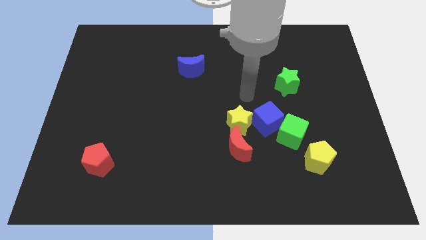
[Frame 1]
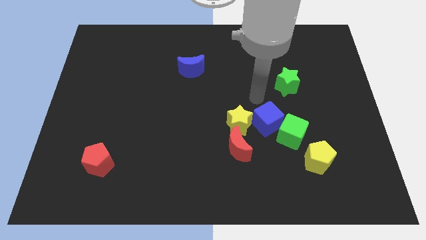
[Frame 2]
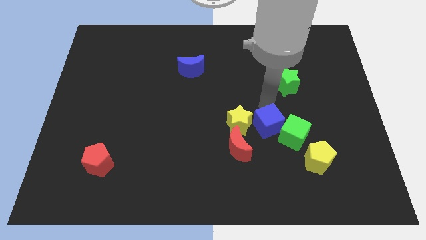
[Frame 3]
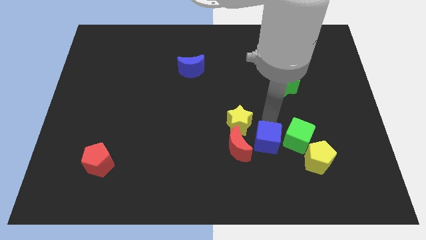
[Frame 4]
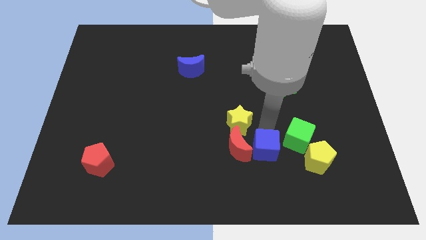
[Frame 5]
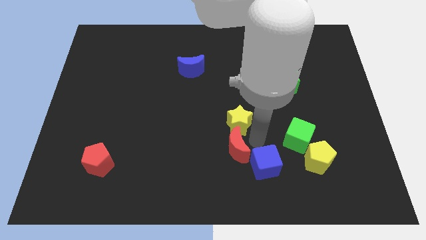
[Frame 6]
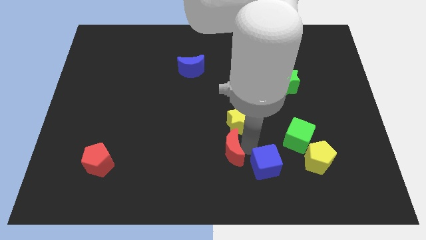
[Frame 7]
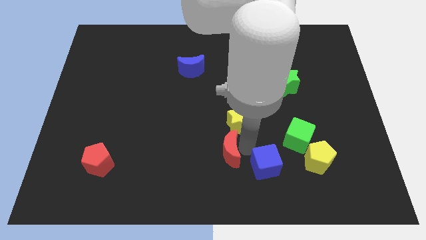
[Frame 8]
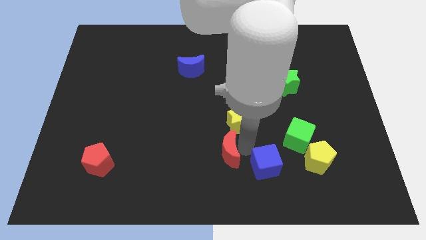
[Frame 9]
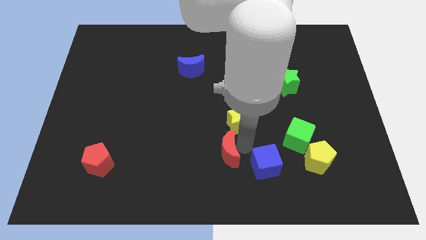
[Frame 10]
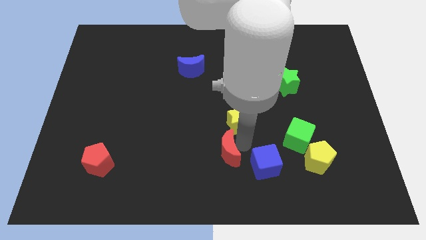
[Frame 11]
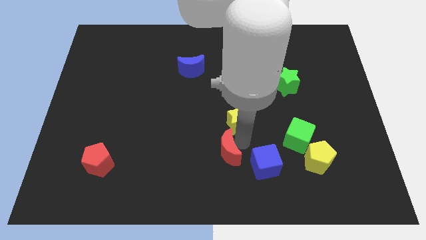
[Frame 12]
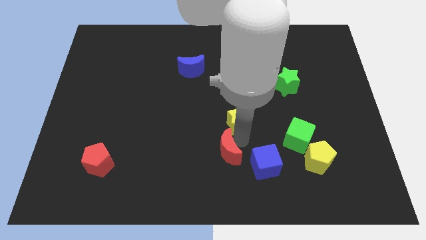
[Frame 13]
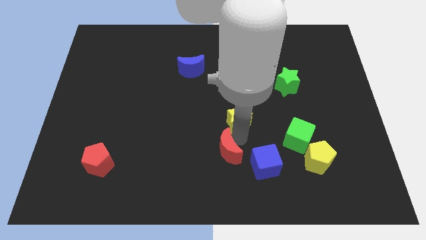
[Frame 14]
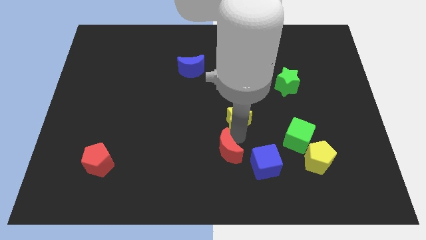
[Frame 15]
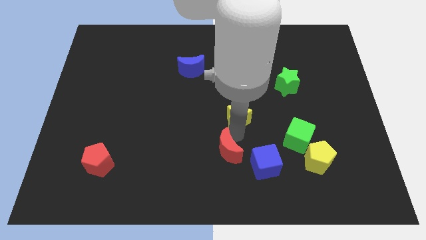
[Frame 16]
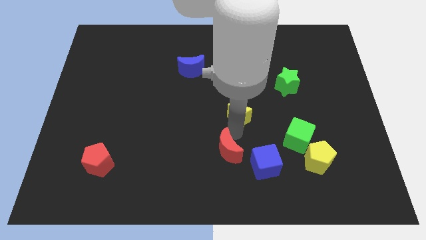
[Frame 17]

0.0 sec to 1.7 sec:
move the yellow star away from the red moon and blue cube

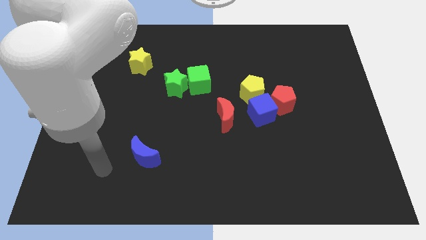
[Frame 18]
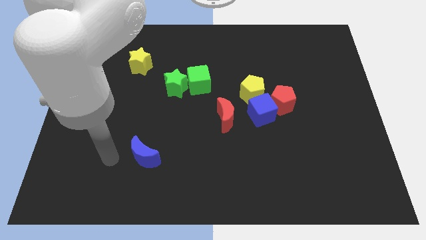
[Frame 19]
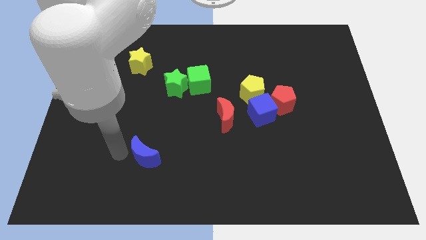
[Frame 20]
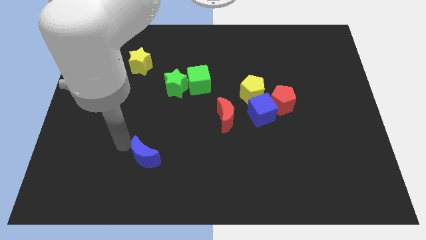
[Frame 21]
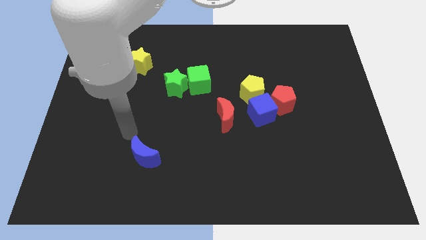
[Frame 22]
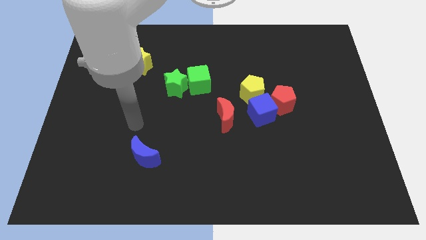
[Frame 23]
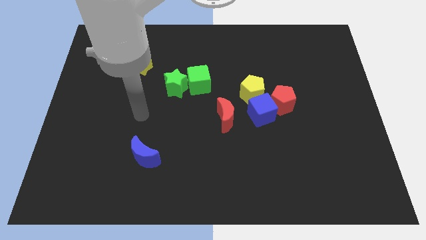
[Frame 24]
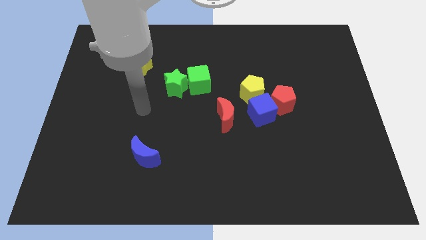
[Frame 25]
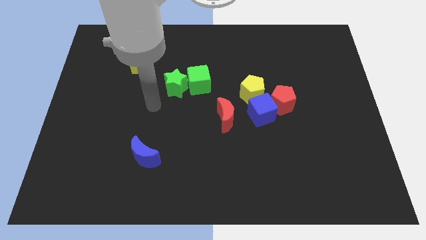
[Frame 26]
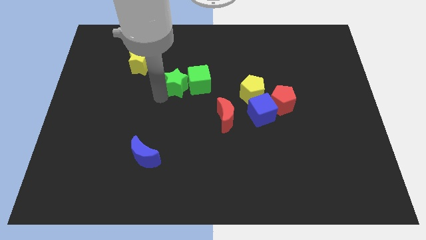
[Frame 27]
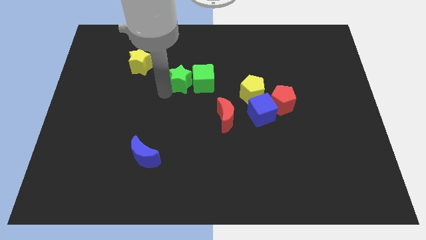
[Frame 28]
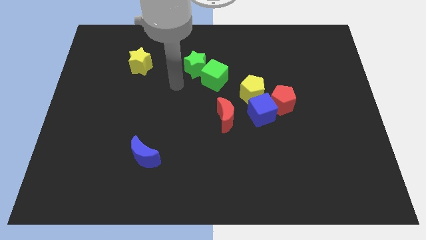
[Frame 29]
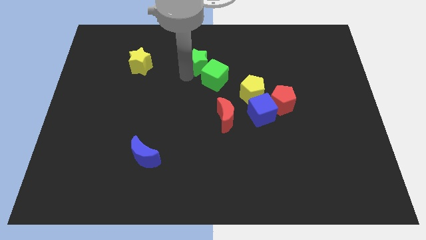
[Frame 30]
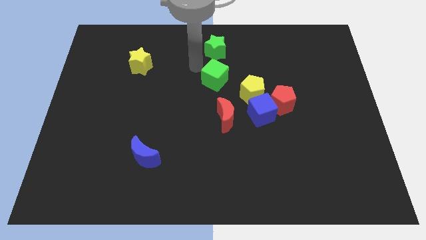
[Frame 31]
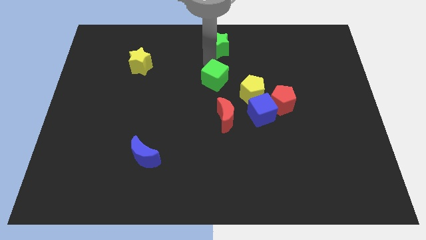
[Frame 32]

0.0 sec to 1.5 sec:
separate the green cube from the green star

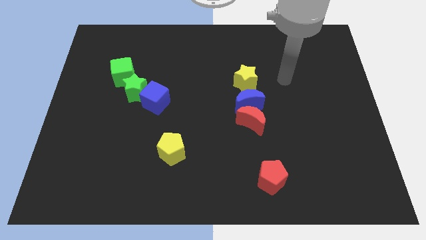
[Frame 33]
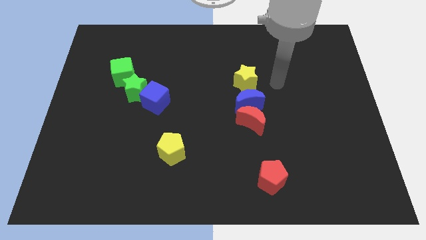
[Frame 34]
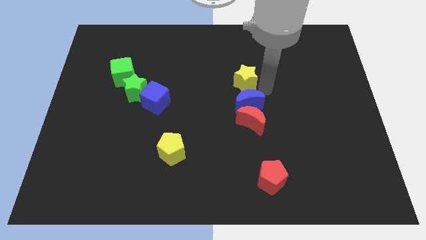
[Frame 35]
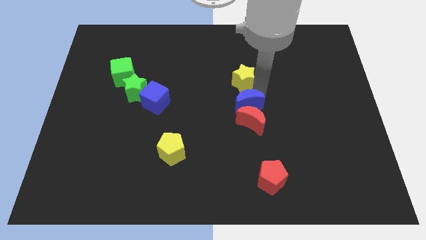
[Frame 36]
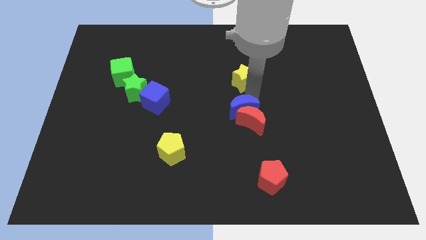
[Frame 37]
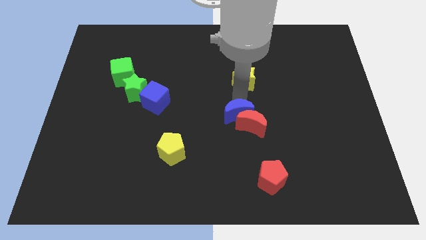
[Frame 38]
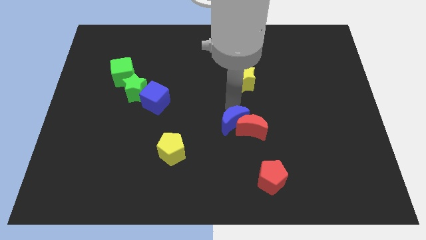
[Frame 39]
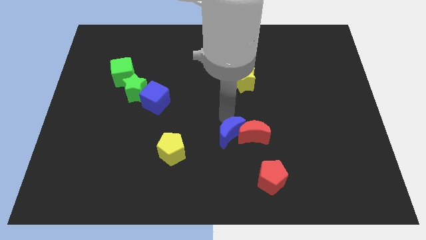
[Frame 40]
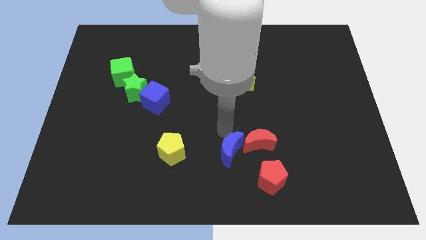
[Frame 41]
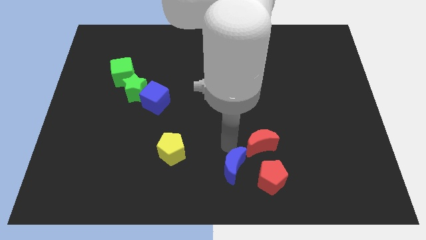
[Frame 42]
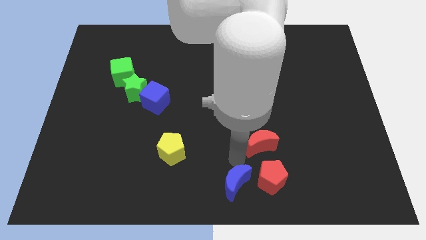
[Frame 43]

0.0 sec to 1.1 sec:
move the red moon away from the blue moon

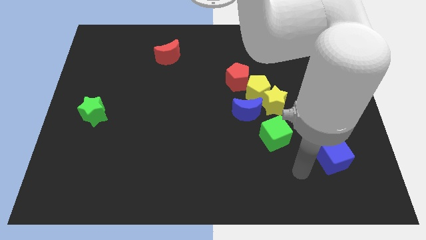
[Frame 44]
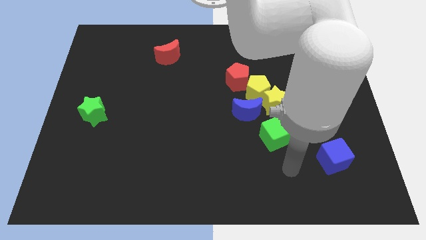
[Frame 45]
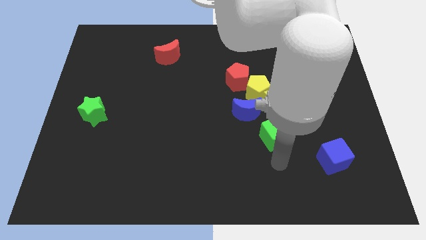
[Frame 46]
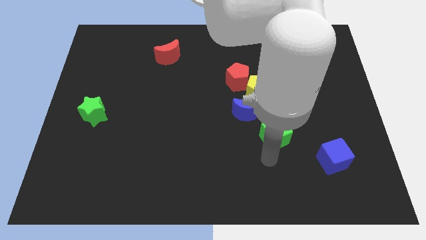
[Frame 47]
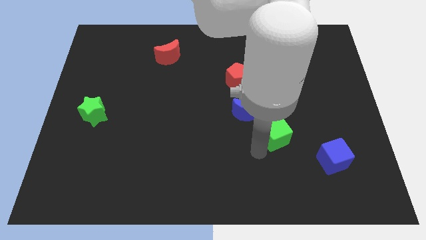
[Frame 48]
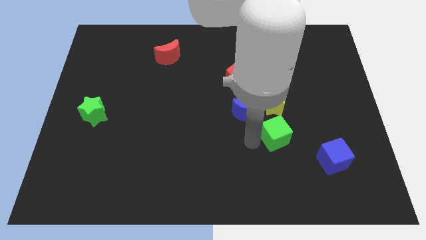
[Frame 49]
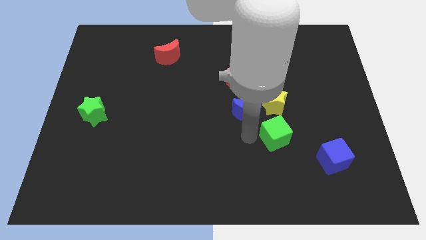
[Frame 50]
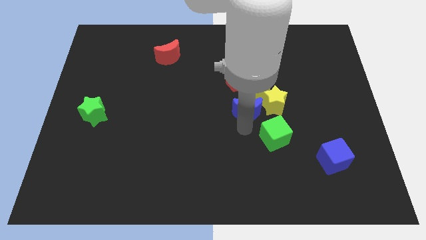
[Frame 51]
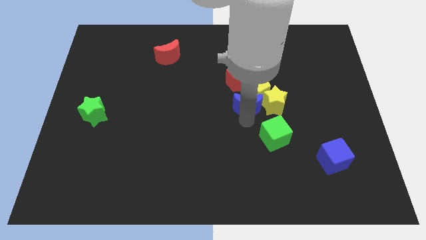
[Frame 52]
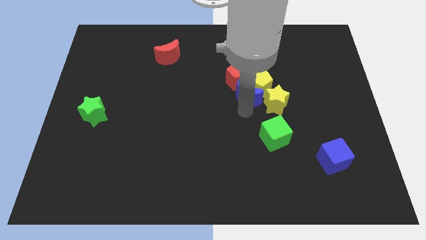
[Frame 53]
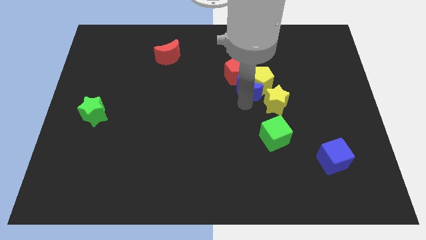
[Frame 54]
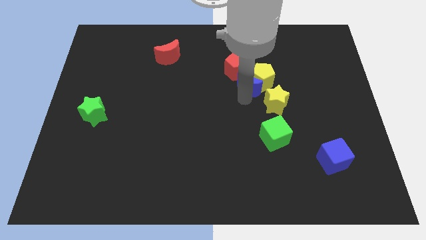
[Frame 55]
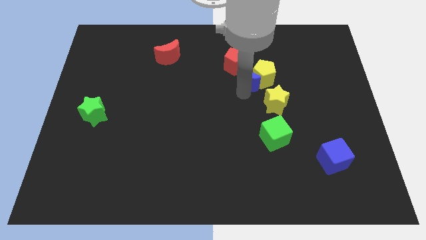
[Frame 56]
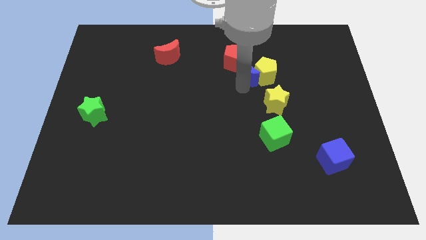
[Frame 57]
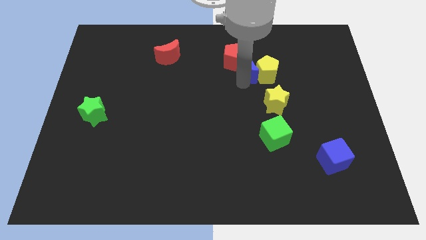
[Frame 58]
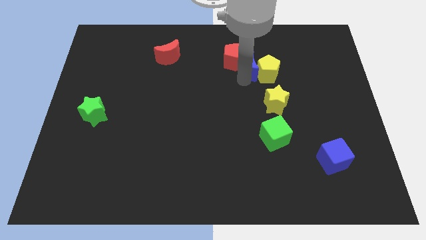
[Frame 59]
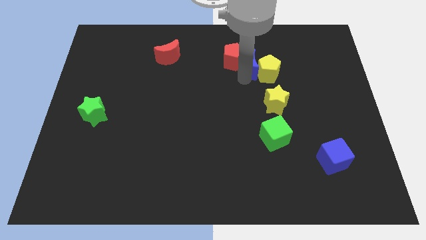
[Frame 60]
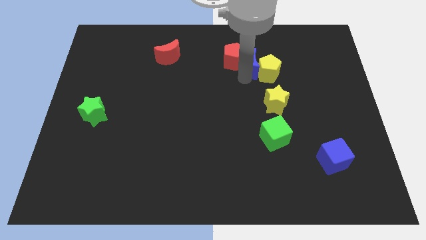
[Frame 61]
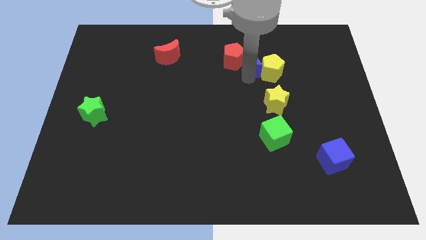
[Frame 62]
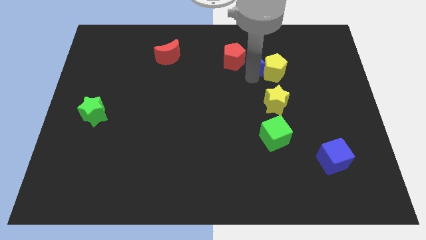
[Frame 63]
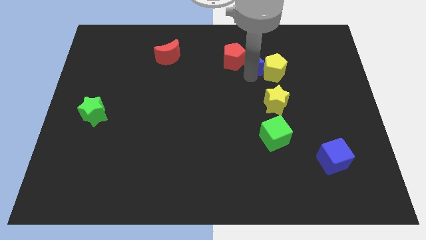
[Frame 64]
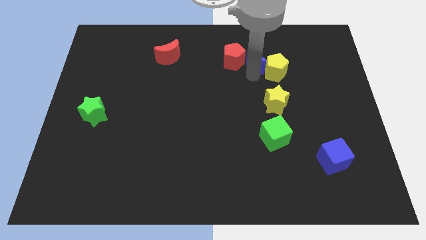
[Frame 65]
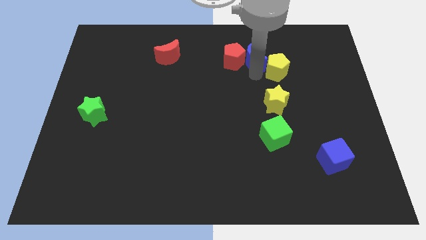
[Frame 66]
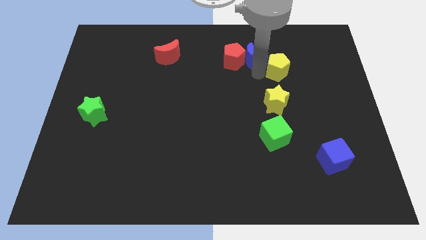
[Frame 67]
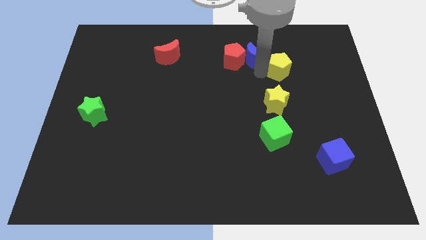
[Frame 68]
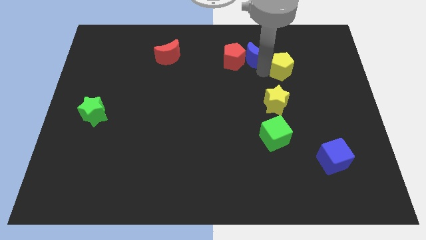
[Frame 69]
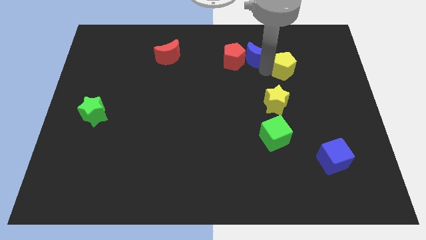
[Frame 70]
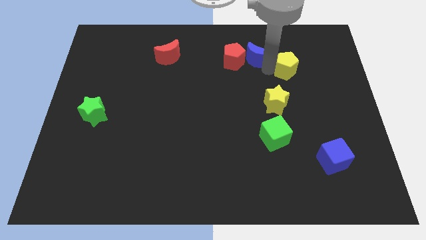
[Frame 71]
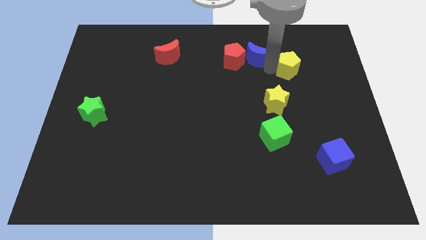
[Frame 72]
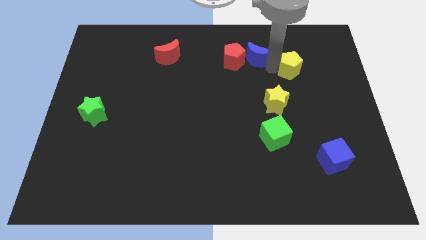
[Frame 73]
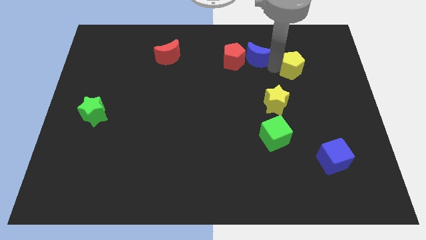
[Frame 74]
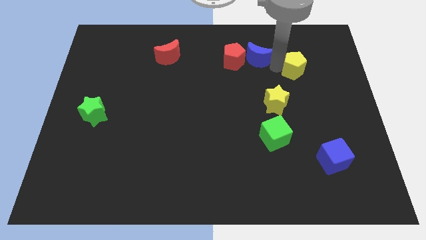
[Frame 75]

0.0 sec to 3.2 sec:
separate the yellow pentagon from the yellow star, red pentagon, and blue moon

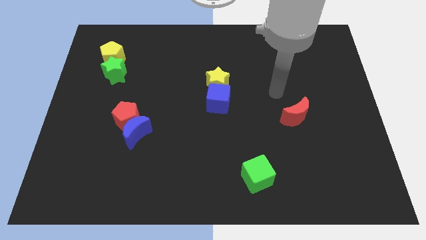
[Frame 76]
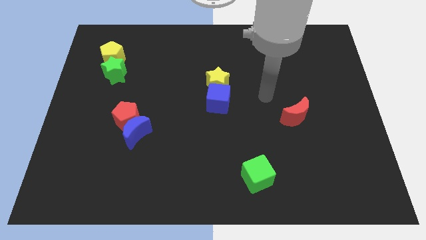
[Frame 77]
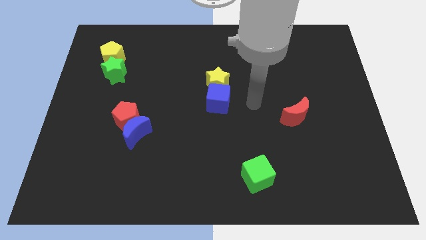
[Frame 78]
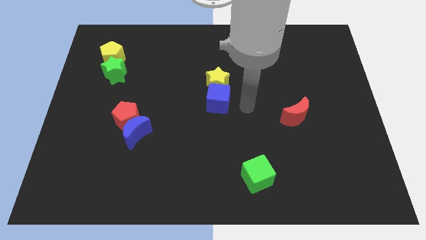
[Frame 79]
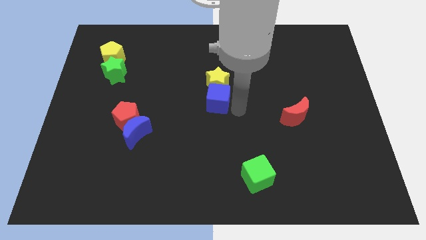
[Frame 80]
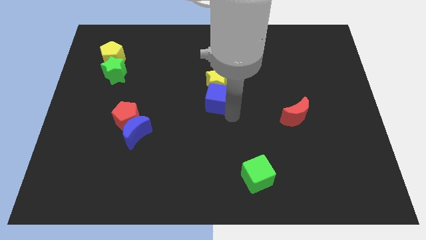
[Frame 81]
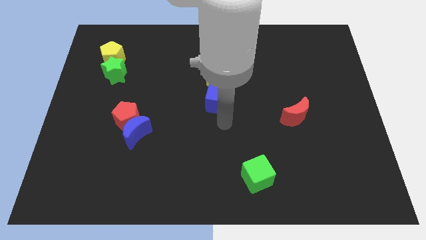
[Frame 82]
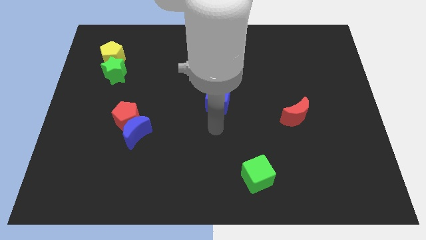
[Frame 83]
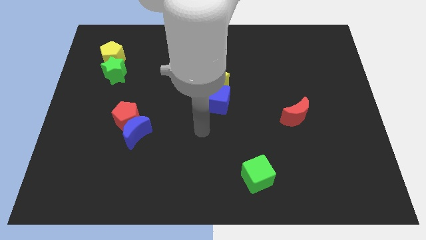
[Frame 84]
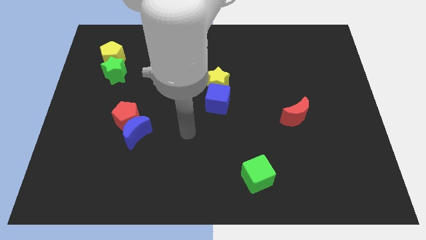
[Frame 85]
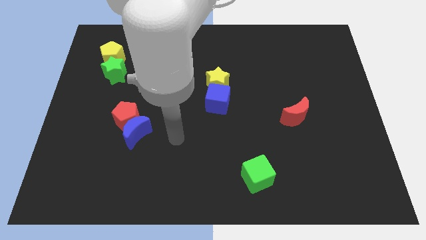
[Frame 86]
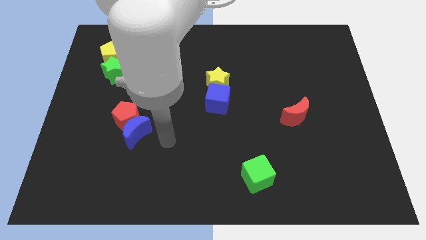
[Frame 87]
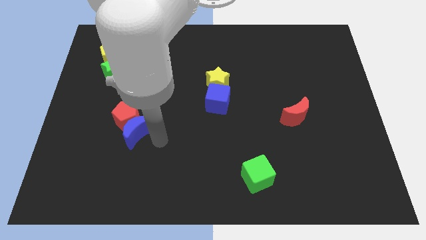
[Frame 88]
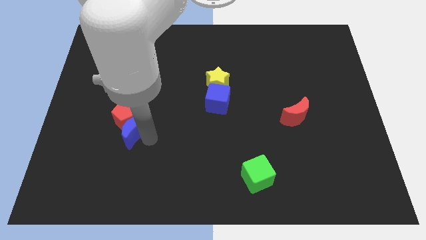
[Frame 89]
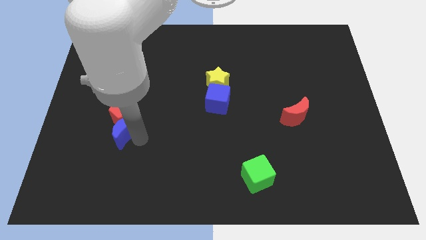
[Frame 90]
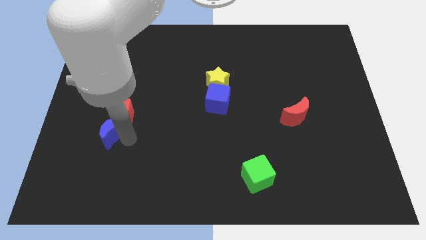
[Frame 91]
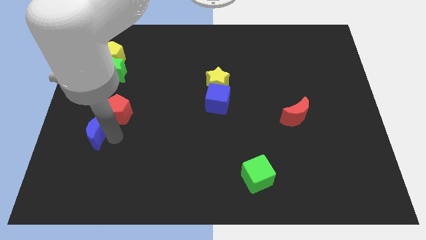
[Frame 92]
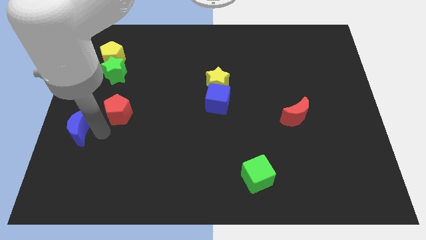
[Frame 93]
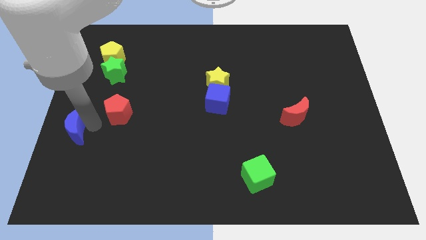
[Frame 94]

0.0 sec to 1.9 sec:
pull the red pentagon apart from the blue moon
